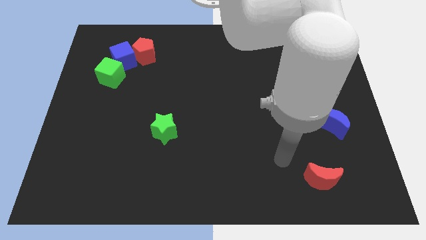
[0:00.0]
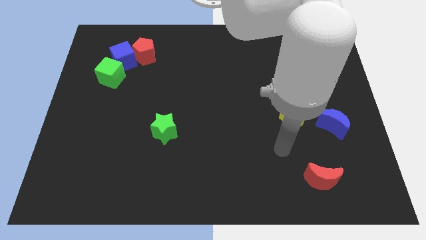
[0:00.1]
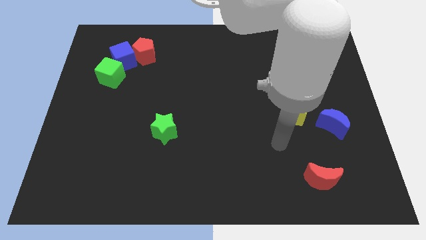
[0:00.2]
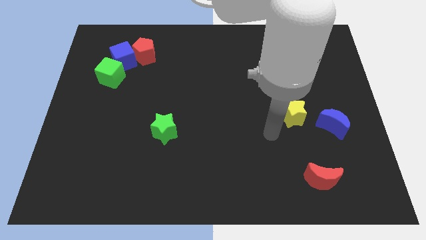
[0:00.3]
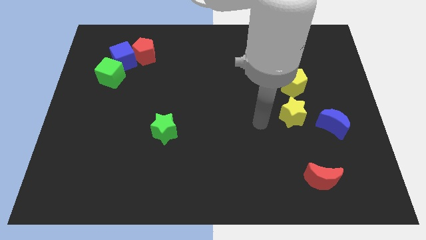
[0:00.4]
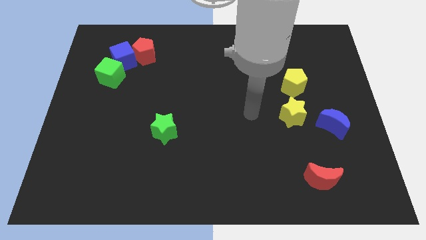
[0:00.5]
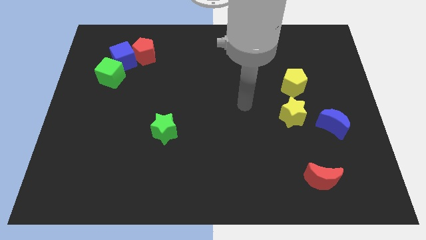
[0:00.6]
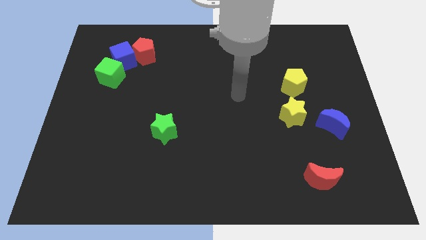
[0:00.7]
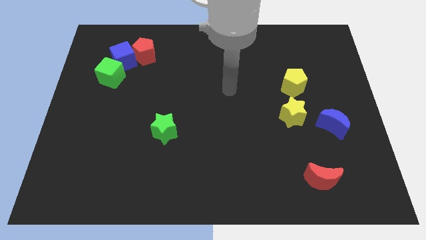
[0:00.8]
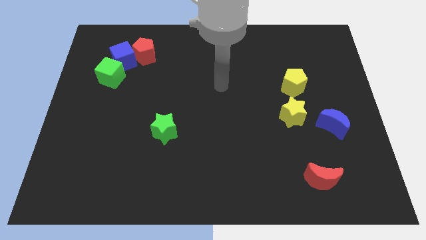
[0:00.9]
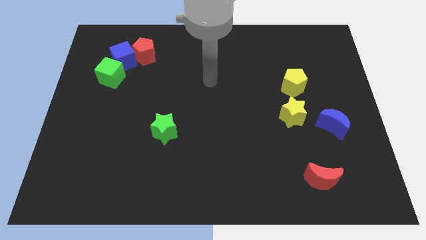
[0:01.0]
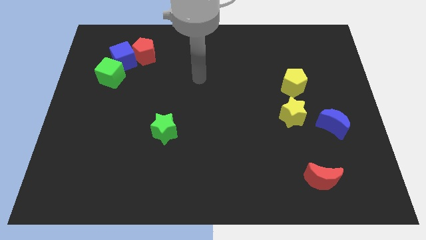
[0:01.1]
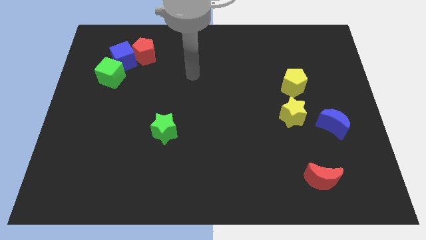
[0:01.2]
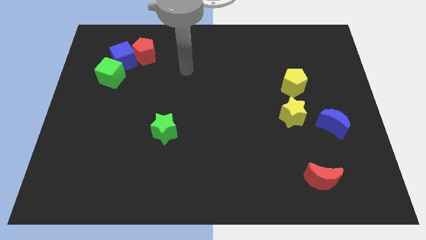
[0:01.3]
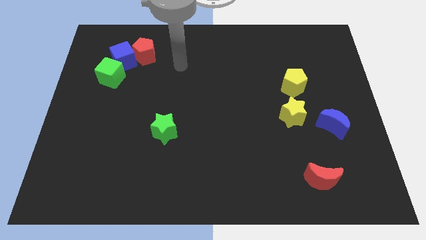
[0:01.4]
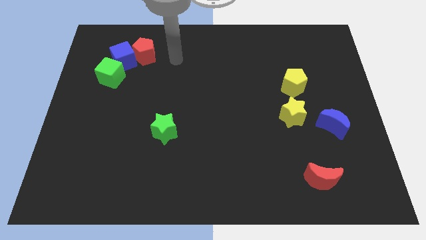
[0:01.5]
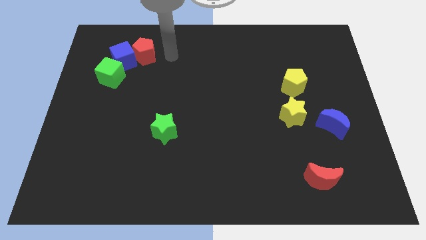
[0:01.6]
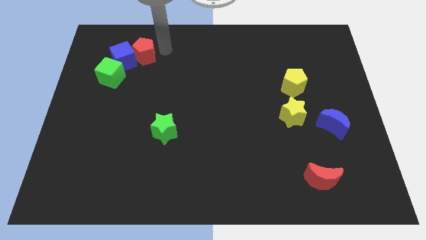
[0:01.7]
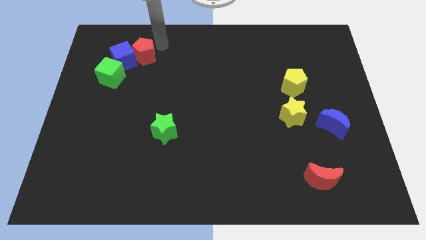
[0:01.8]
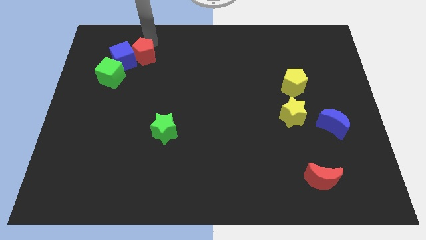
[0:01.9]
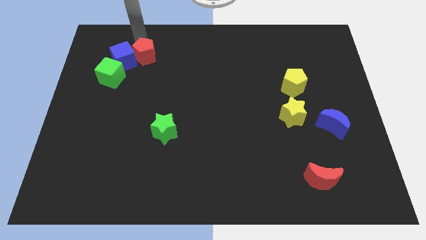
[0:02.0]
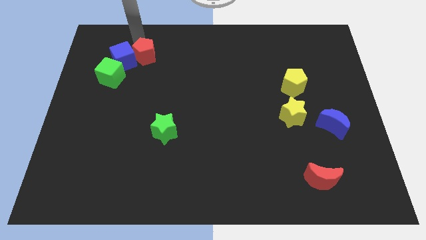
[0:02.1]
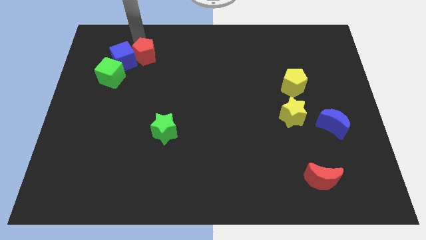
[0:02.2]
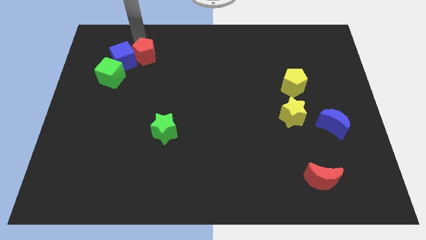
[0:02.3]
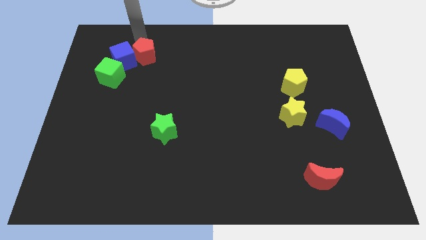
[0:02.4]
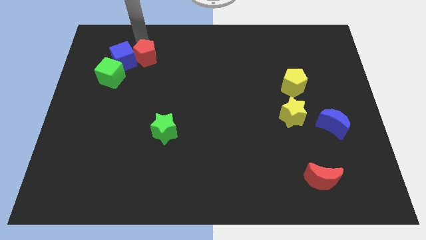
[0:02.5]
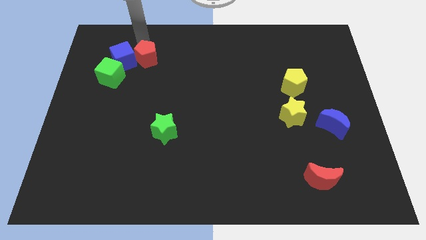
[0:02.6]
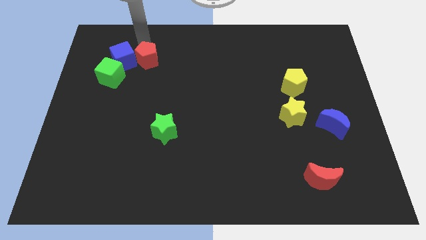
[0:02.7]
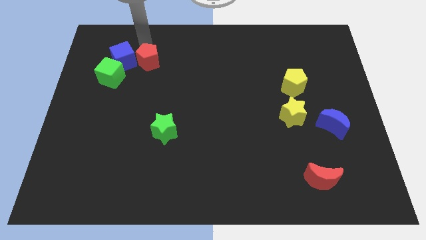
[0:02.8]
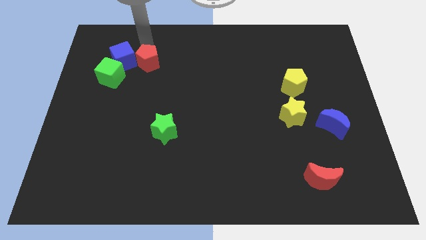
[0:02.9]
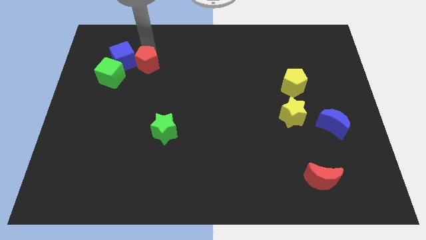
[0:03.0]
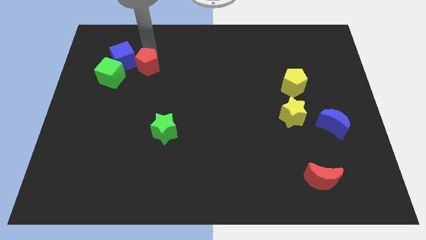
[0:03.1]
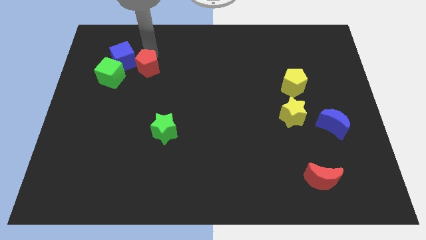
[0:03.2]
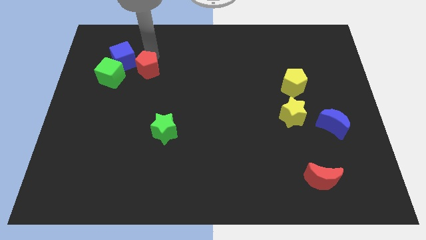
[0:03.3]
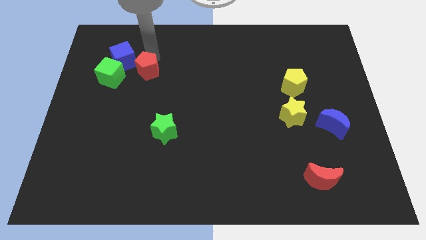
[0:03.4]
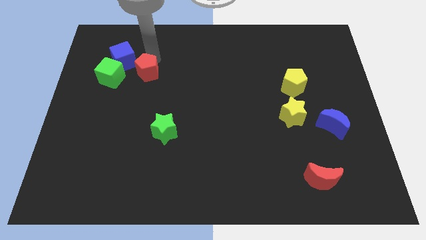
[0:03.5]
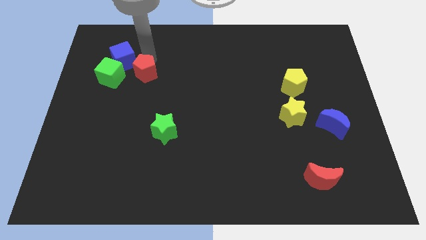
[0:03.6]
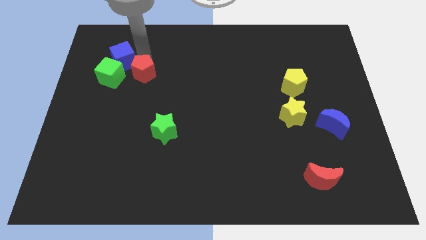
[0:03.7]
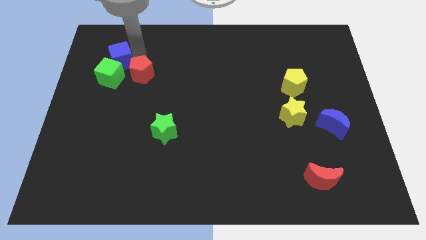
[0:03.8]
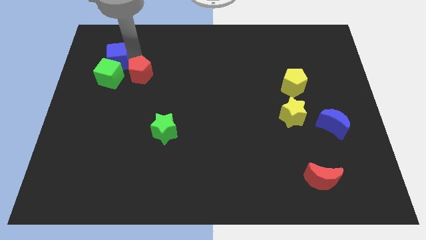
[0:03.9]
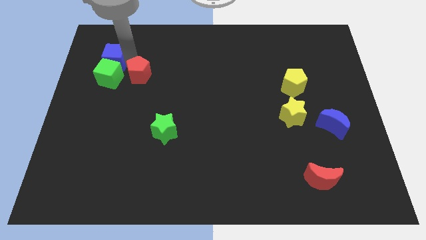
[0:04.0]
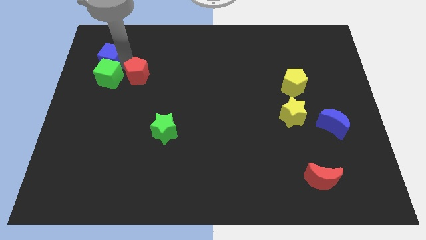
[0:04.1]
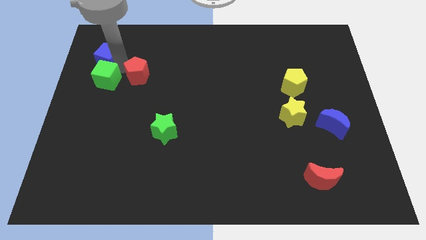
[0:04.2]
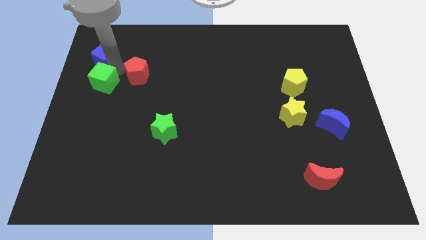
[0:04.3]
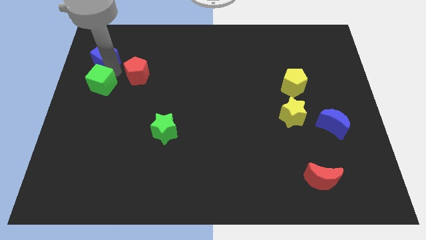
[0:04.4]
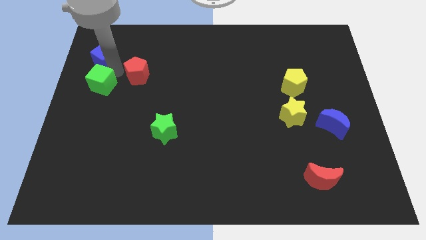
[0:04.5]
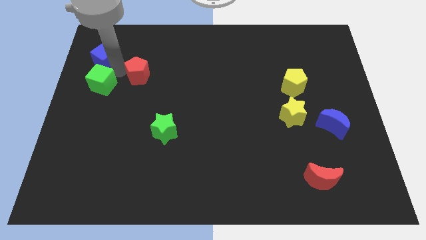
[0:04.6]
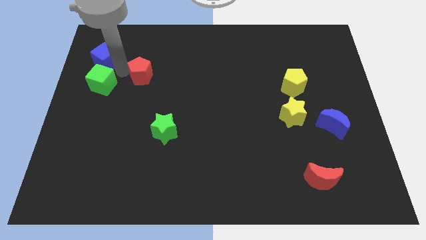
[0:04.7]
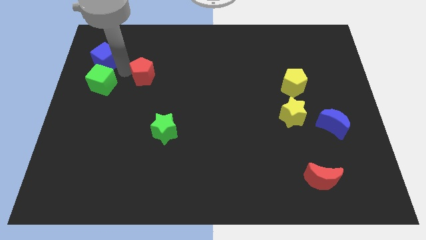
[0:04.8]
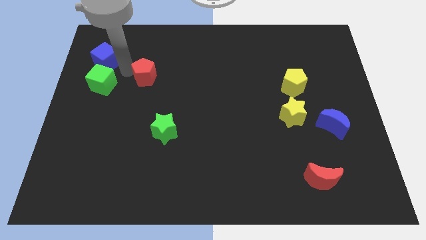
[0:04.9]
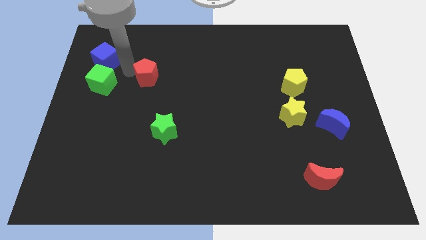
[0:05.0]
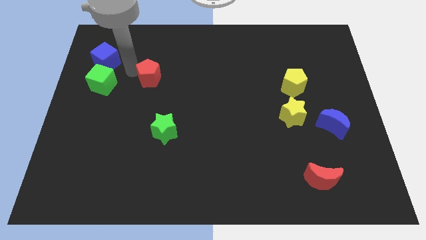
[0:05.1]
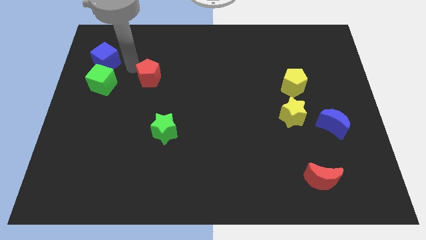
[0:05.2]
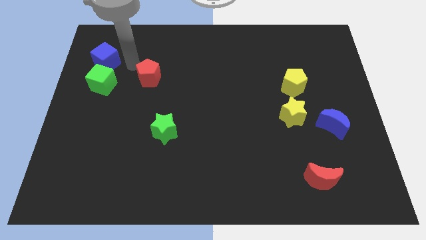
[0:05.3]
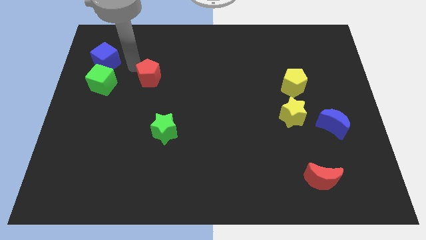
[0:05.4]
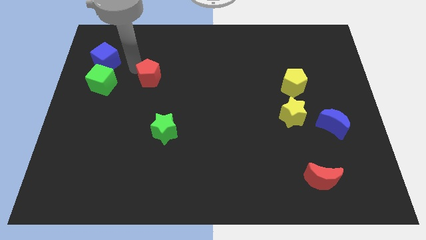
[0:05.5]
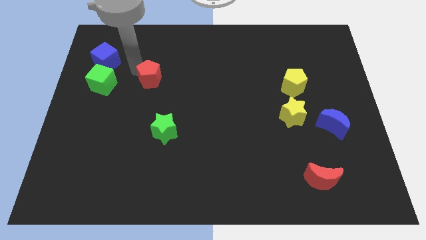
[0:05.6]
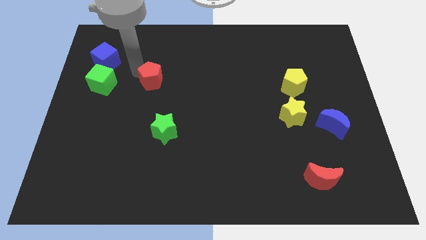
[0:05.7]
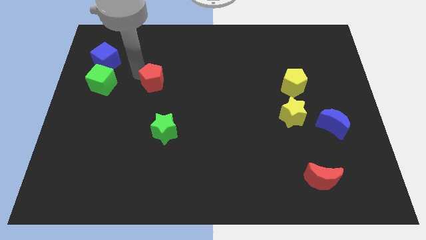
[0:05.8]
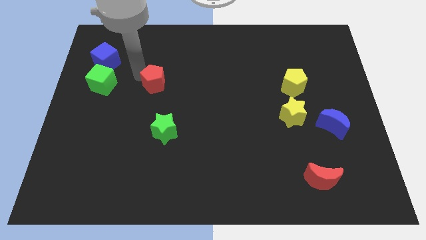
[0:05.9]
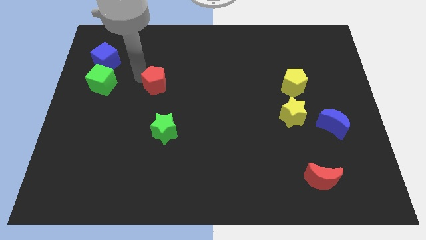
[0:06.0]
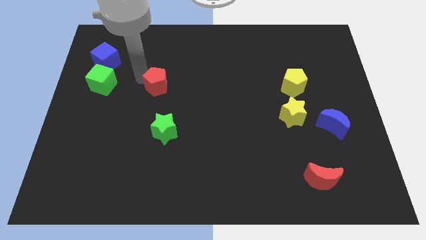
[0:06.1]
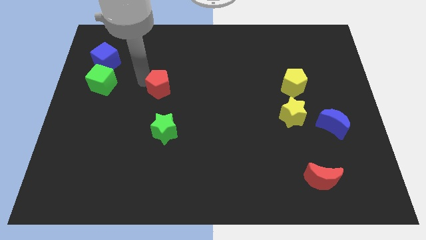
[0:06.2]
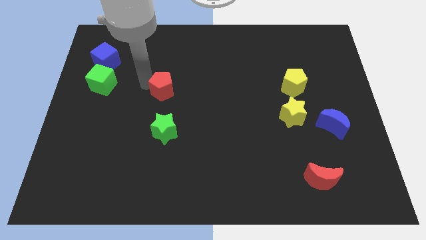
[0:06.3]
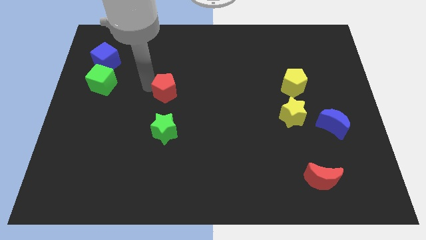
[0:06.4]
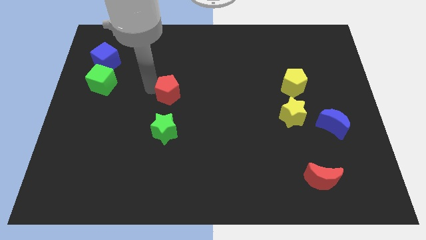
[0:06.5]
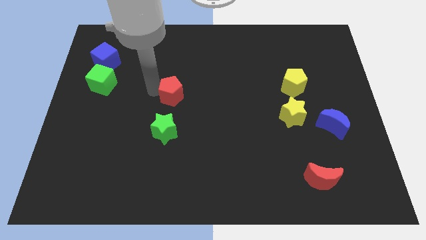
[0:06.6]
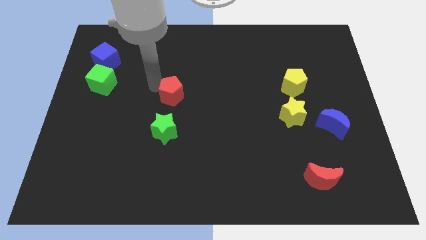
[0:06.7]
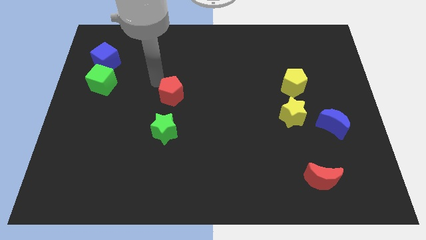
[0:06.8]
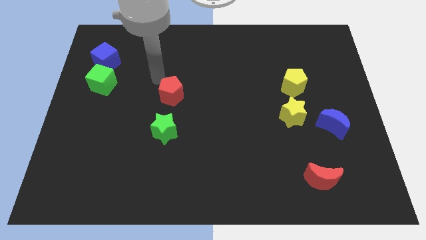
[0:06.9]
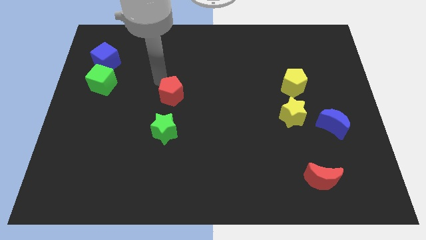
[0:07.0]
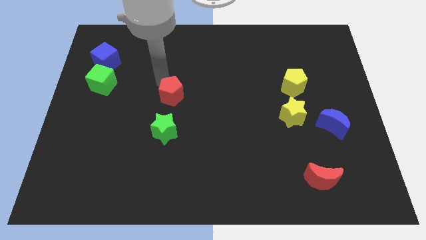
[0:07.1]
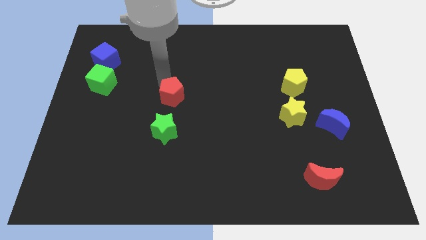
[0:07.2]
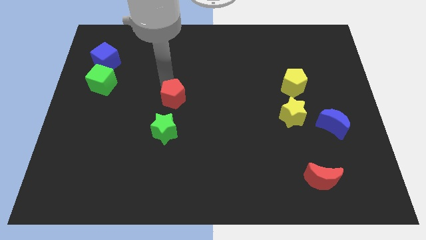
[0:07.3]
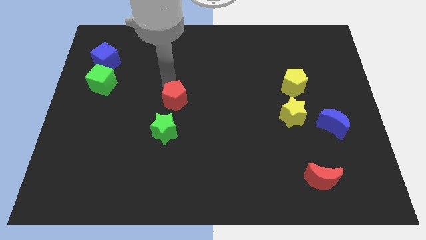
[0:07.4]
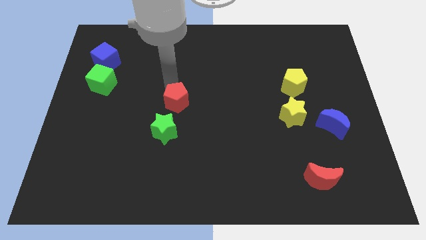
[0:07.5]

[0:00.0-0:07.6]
slide the red pentagon to the top right of the green star

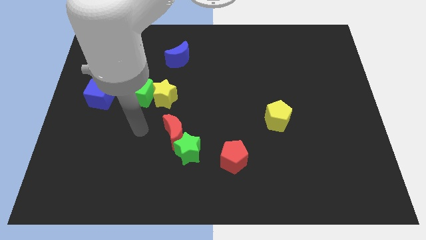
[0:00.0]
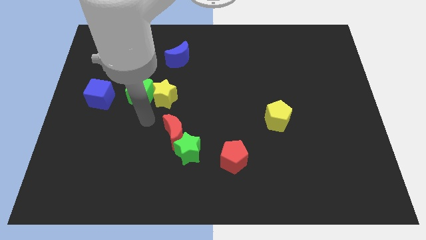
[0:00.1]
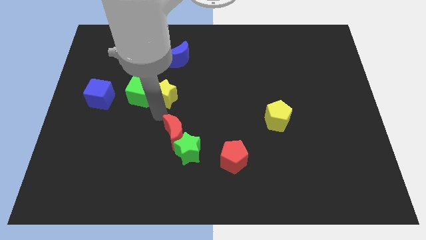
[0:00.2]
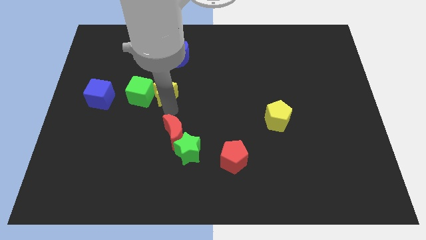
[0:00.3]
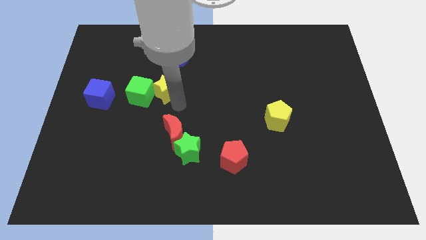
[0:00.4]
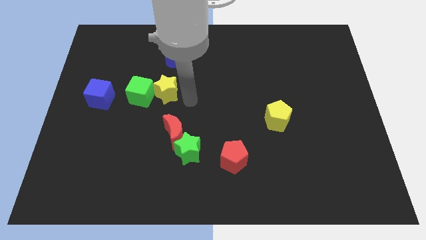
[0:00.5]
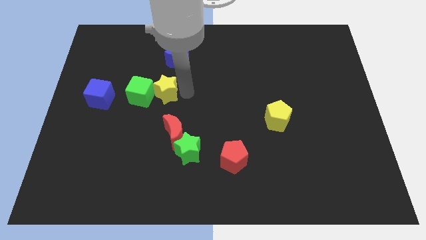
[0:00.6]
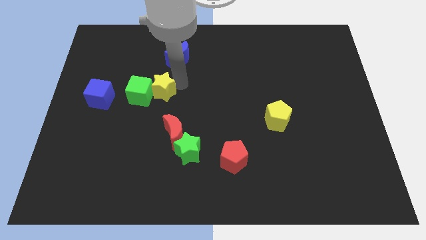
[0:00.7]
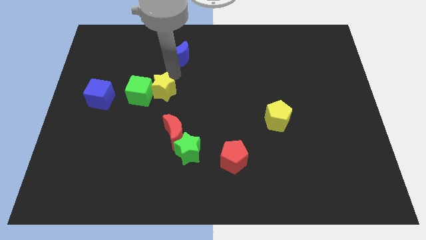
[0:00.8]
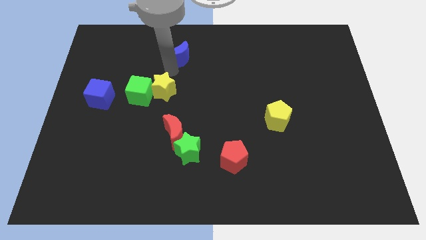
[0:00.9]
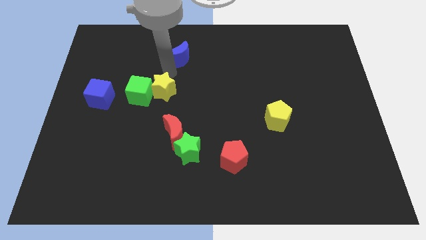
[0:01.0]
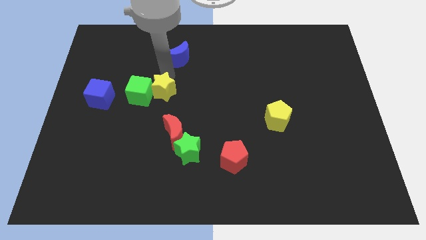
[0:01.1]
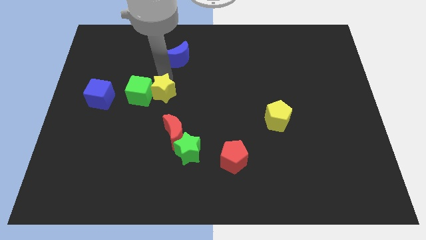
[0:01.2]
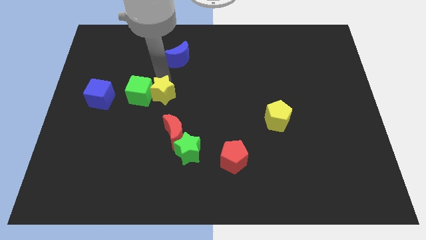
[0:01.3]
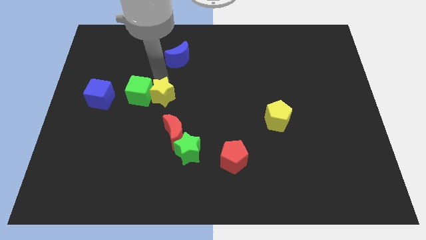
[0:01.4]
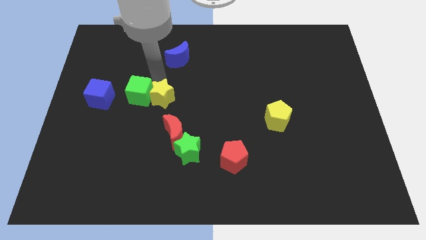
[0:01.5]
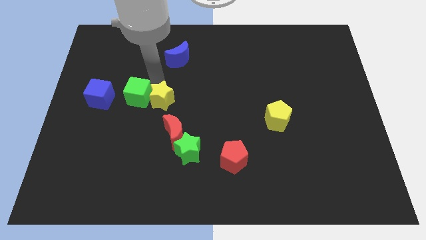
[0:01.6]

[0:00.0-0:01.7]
slide the yellow star diagonally up and to the left of the red moon
